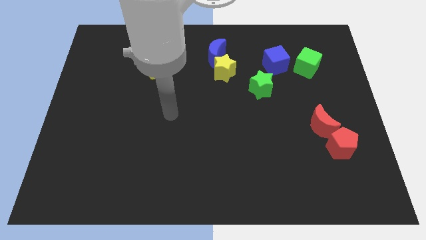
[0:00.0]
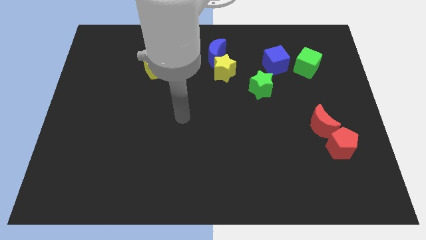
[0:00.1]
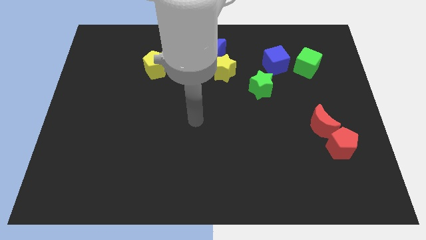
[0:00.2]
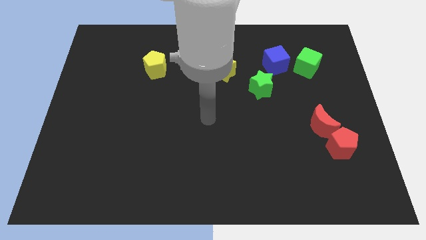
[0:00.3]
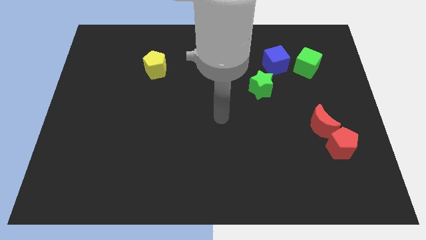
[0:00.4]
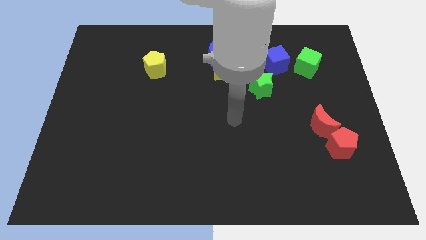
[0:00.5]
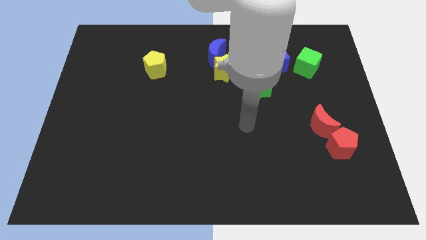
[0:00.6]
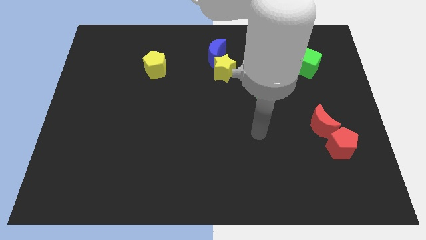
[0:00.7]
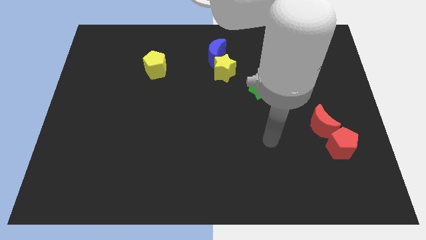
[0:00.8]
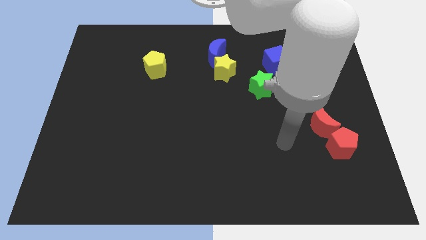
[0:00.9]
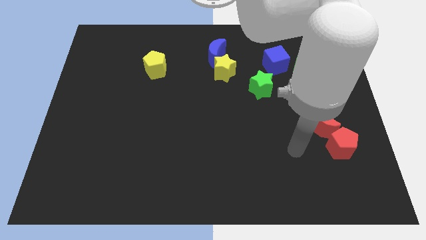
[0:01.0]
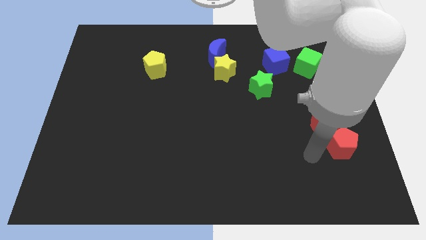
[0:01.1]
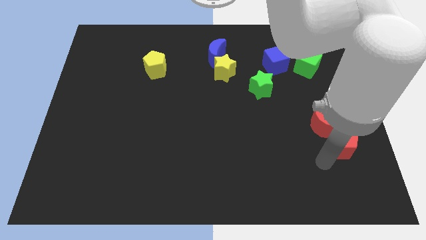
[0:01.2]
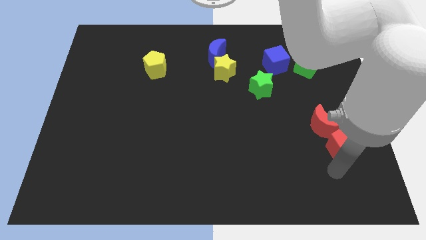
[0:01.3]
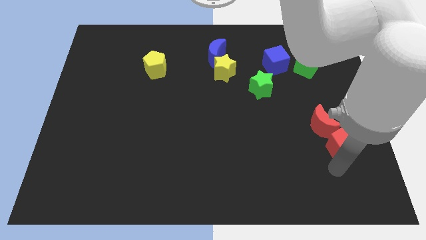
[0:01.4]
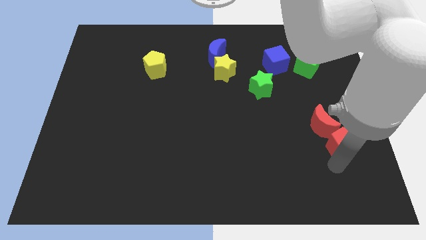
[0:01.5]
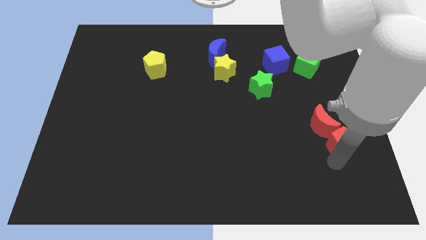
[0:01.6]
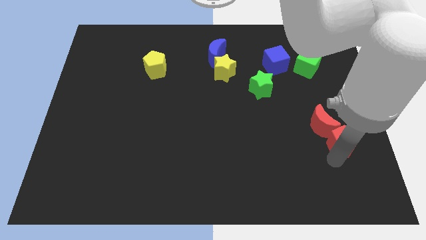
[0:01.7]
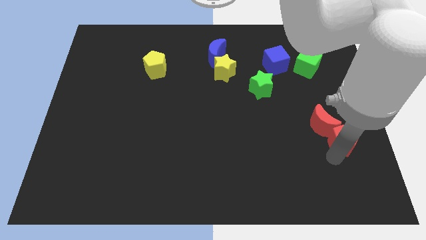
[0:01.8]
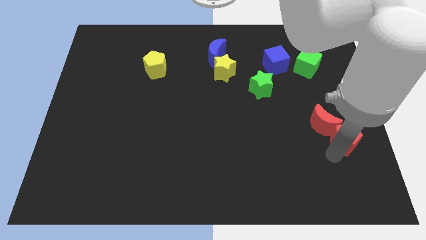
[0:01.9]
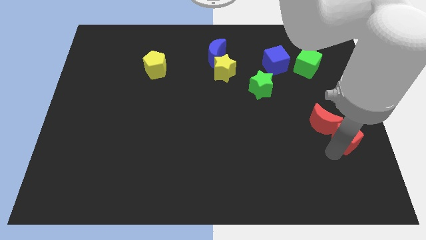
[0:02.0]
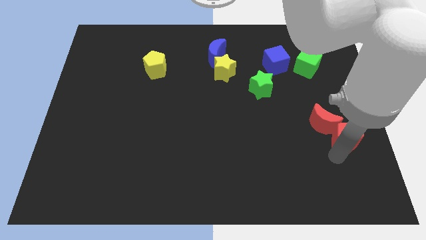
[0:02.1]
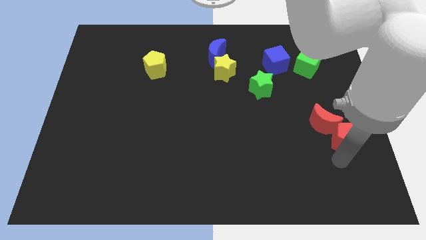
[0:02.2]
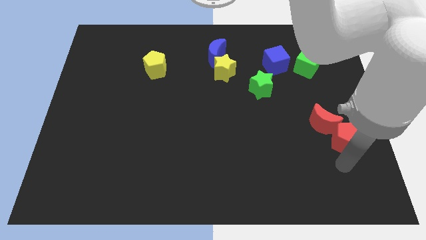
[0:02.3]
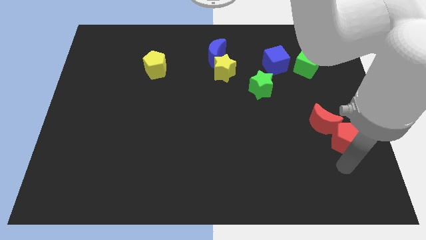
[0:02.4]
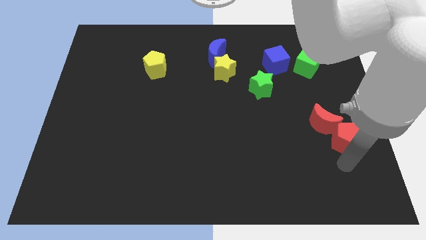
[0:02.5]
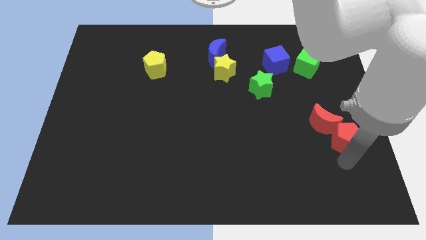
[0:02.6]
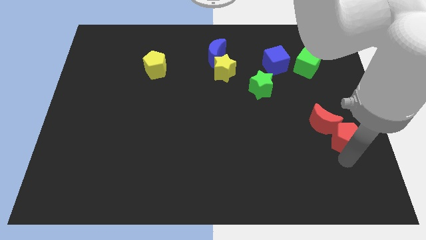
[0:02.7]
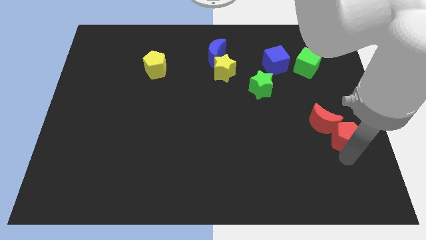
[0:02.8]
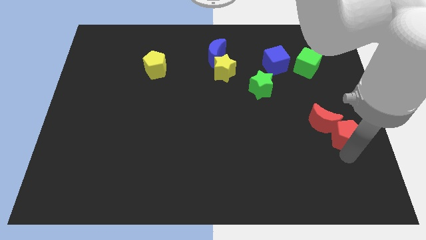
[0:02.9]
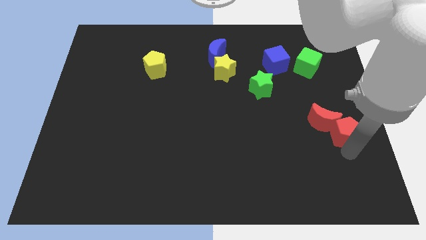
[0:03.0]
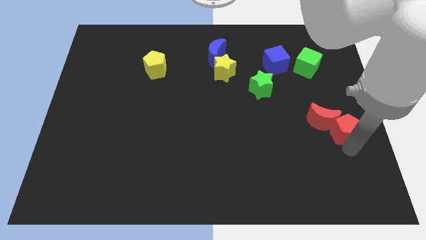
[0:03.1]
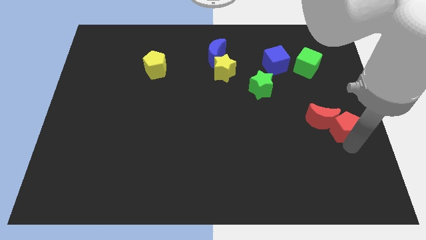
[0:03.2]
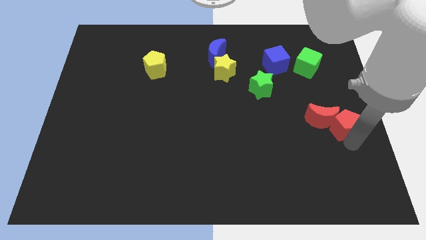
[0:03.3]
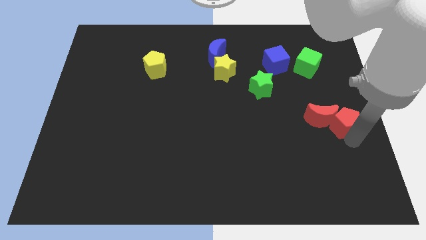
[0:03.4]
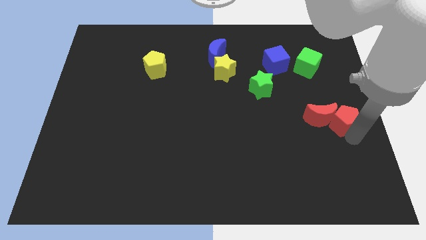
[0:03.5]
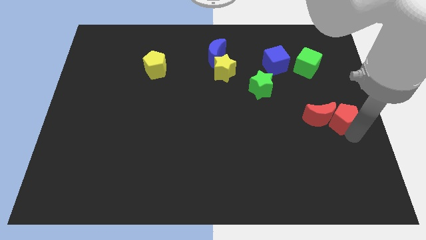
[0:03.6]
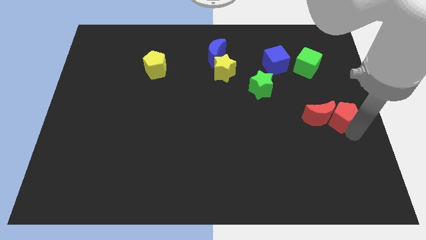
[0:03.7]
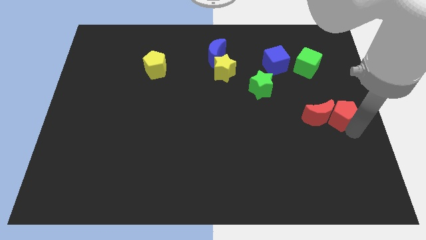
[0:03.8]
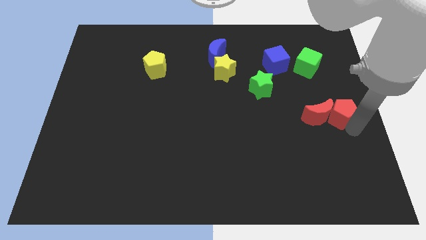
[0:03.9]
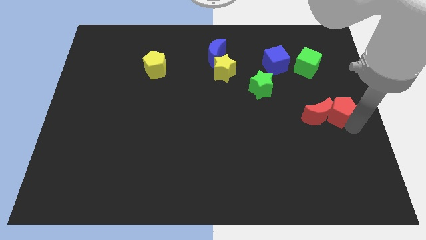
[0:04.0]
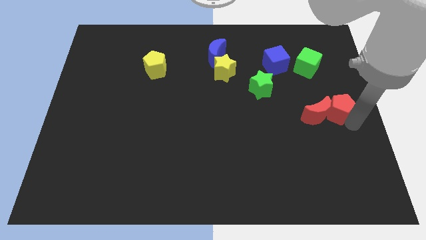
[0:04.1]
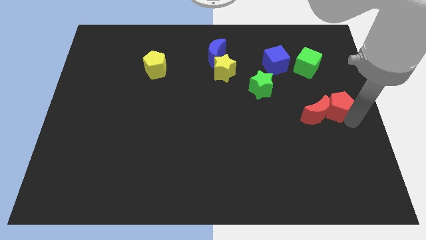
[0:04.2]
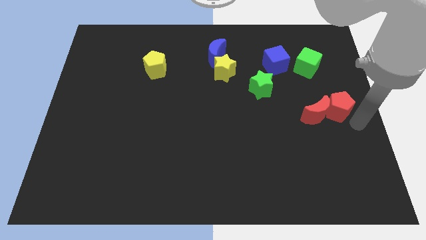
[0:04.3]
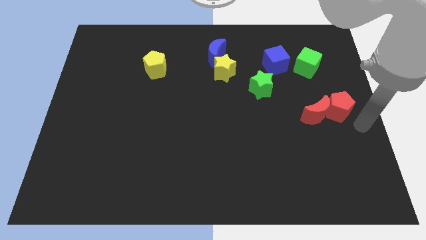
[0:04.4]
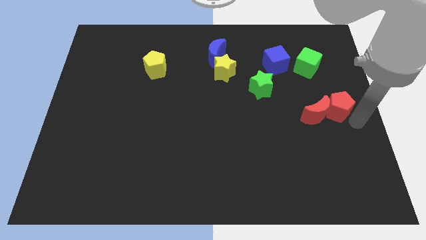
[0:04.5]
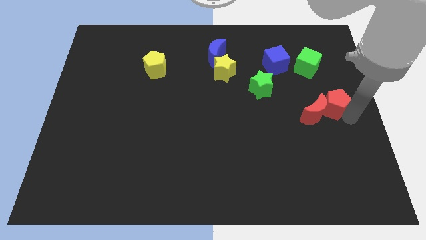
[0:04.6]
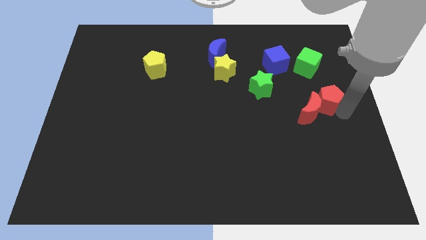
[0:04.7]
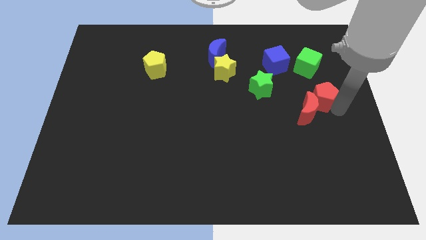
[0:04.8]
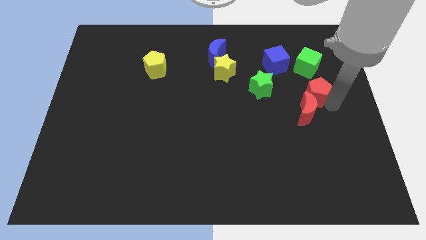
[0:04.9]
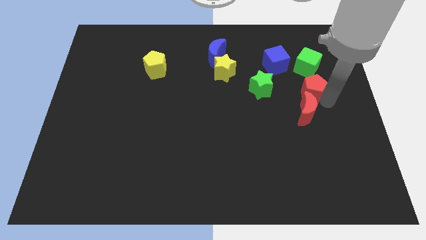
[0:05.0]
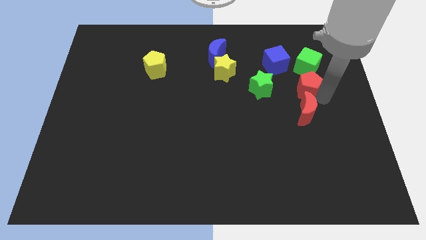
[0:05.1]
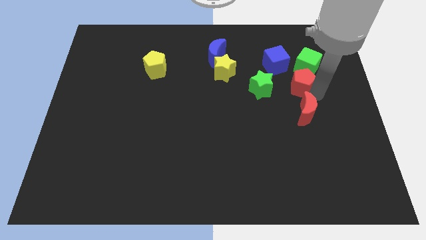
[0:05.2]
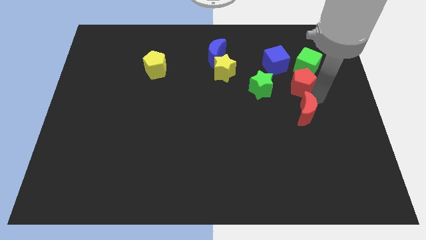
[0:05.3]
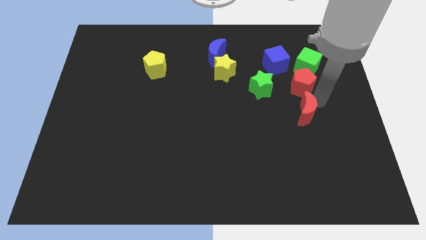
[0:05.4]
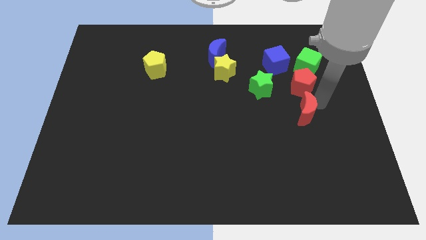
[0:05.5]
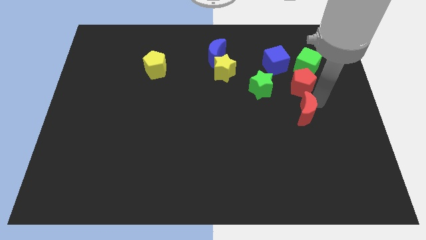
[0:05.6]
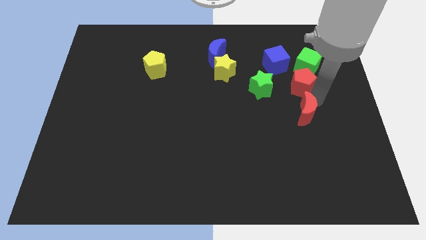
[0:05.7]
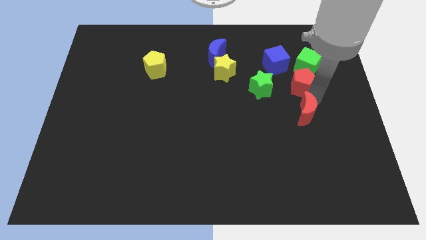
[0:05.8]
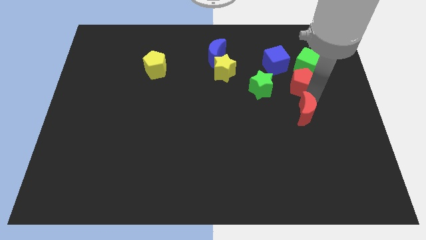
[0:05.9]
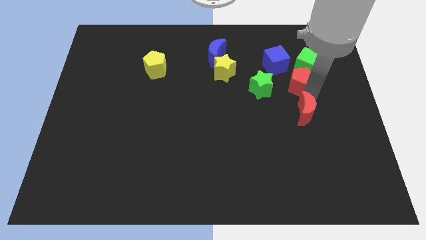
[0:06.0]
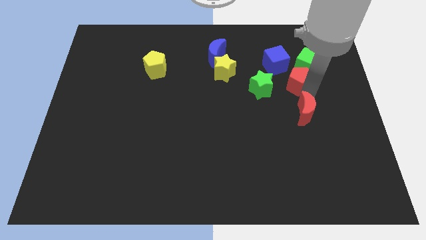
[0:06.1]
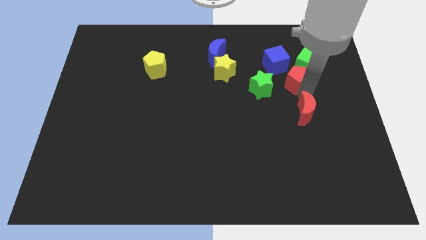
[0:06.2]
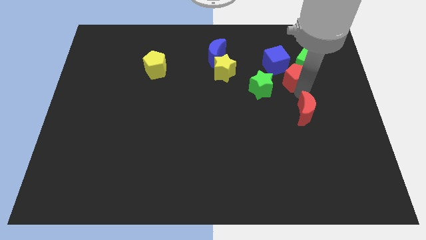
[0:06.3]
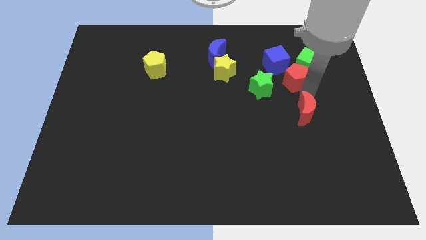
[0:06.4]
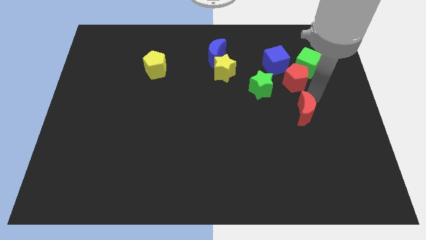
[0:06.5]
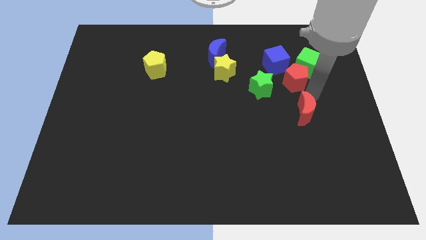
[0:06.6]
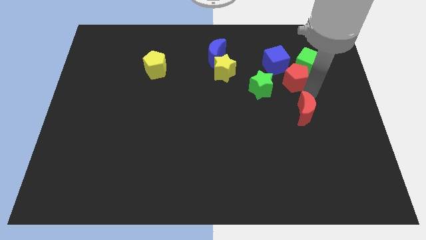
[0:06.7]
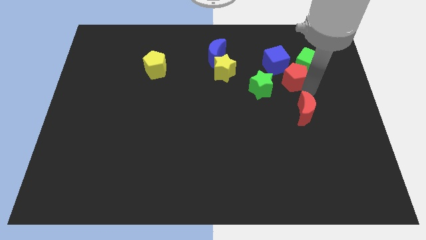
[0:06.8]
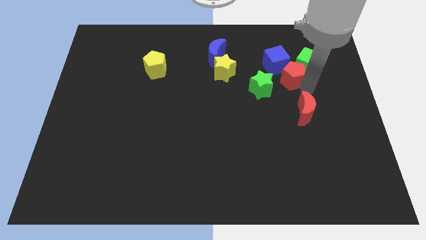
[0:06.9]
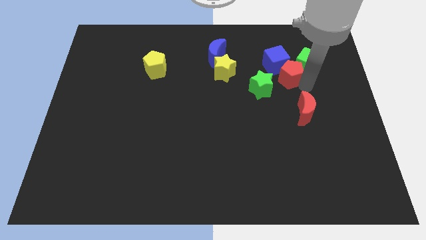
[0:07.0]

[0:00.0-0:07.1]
move the red pentagon close to the blue cube
